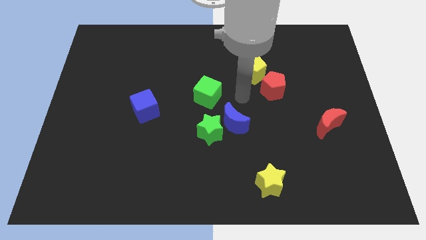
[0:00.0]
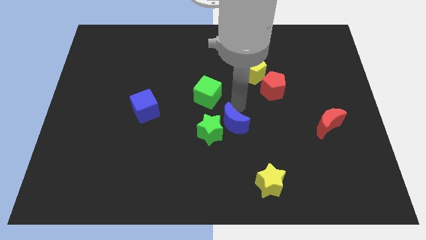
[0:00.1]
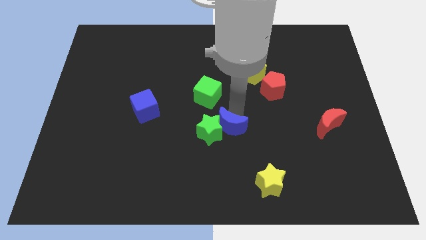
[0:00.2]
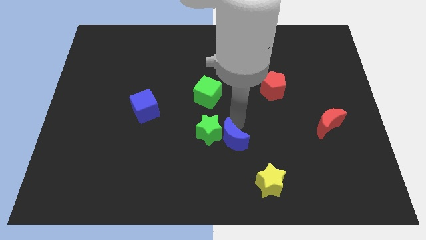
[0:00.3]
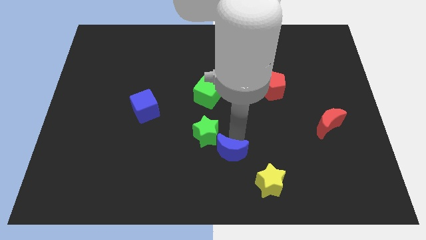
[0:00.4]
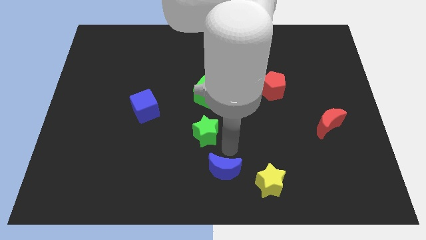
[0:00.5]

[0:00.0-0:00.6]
separate the green star from the blue moon

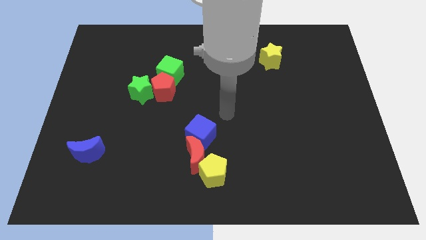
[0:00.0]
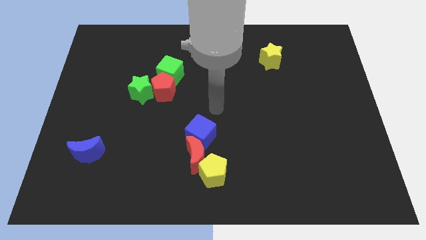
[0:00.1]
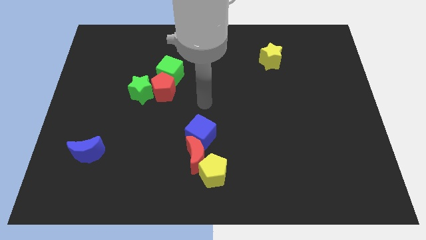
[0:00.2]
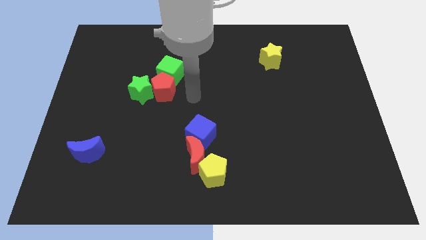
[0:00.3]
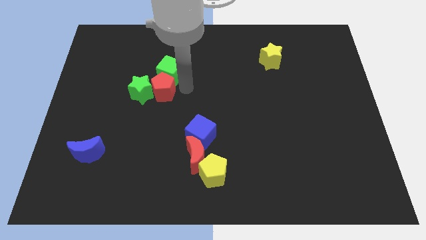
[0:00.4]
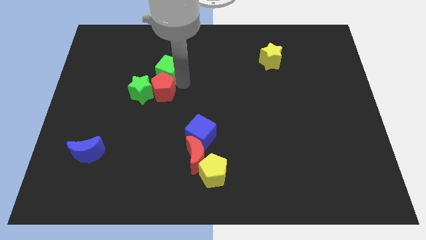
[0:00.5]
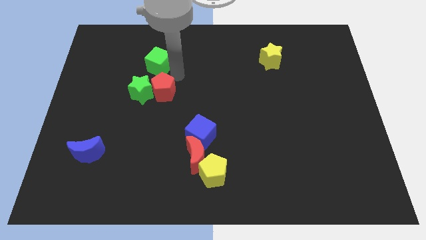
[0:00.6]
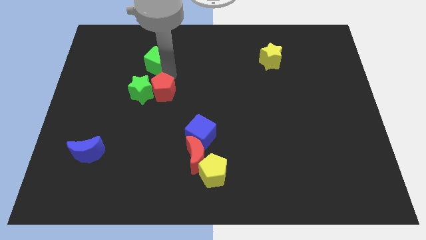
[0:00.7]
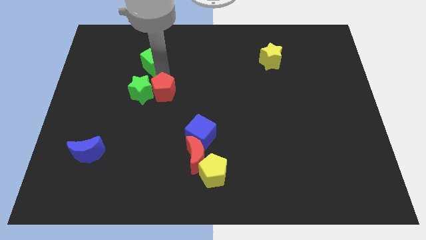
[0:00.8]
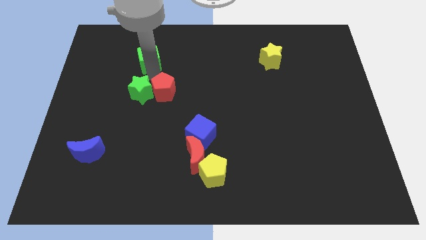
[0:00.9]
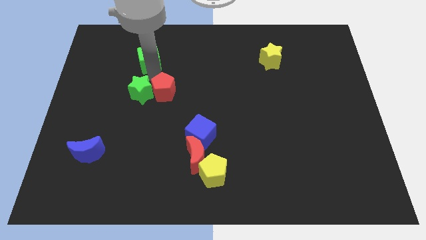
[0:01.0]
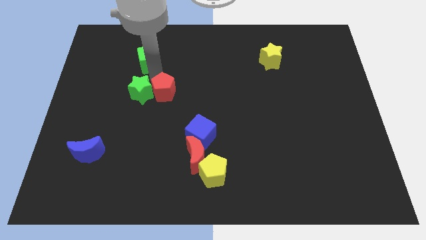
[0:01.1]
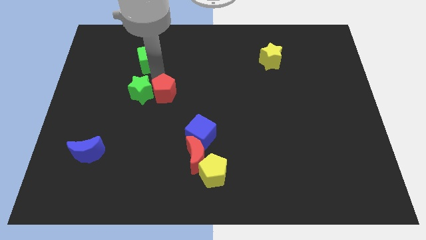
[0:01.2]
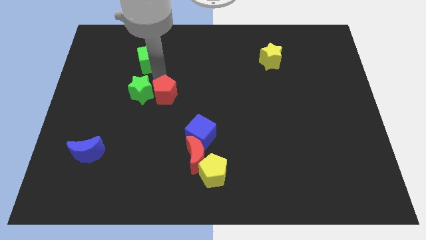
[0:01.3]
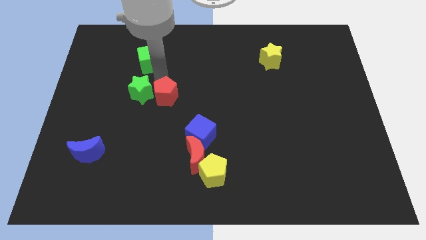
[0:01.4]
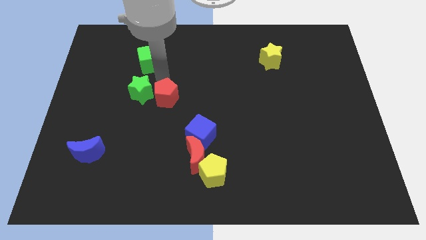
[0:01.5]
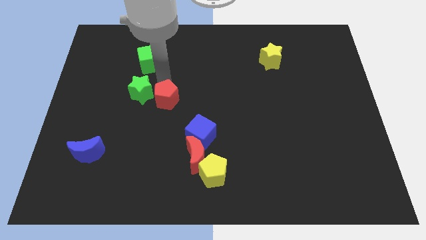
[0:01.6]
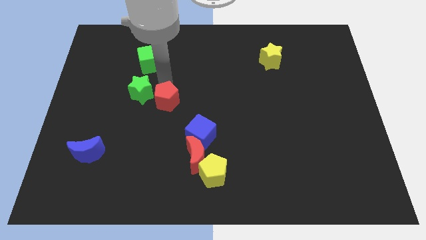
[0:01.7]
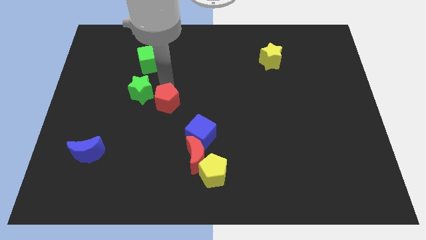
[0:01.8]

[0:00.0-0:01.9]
pull the red pentagon apart from the green star and green cube

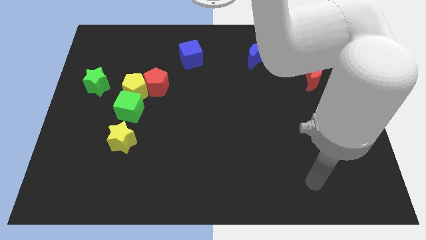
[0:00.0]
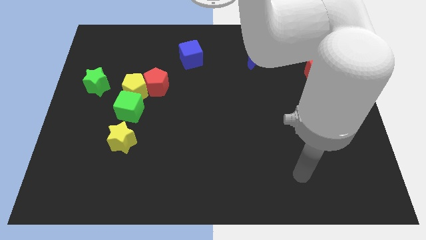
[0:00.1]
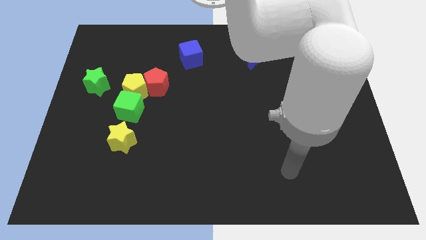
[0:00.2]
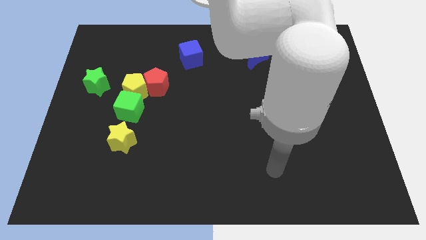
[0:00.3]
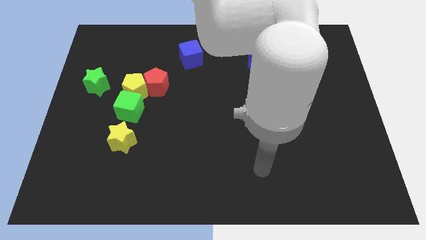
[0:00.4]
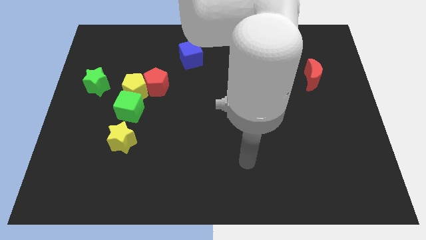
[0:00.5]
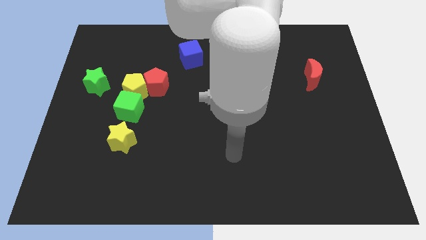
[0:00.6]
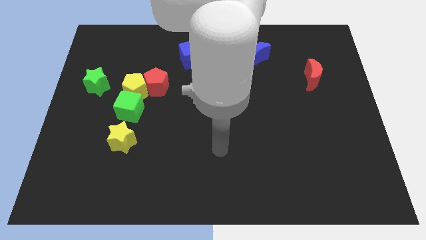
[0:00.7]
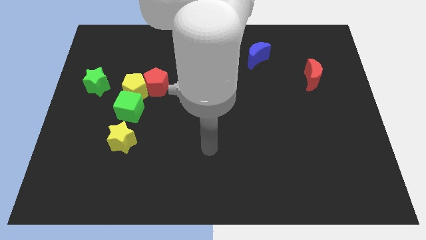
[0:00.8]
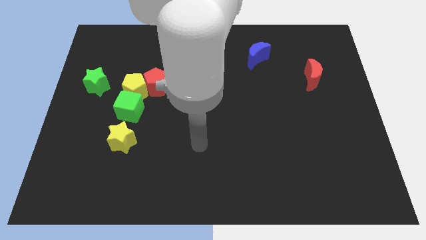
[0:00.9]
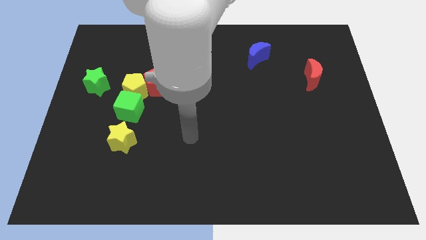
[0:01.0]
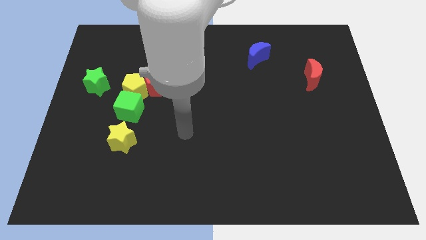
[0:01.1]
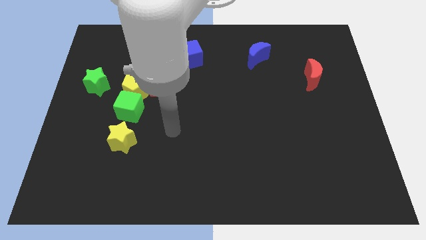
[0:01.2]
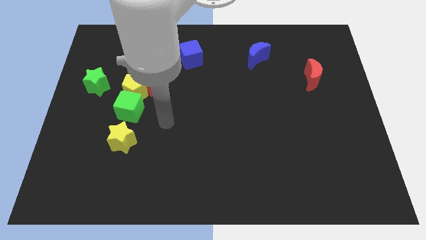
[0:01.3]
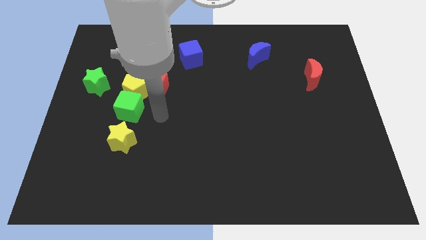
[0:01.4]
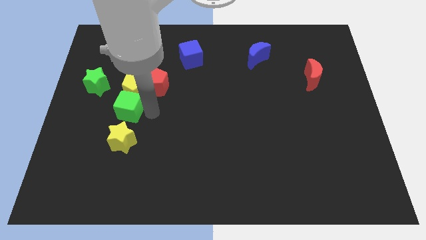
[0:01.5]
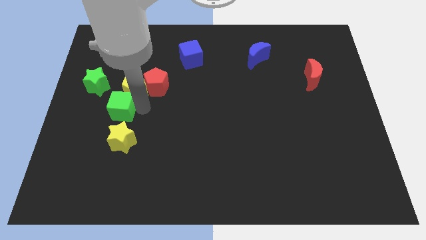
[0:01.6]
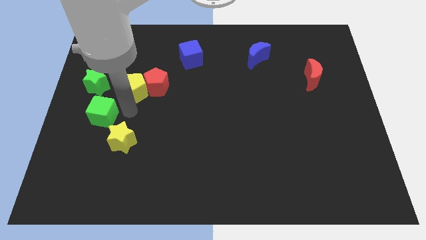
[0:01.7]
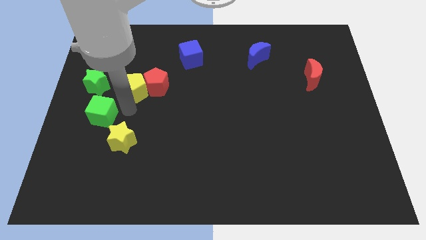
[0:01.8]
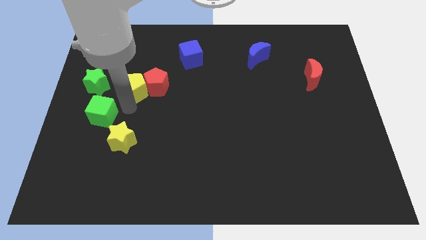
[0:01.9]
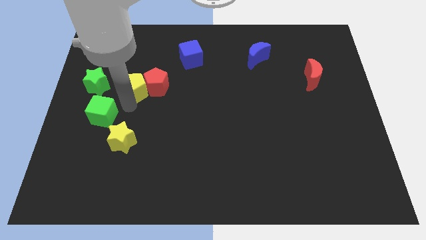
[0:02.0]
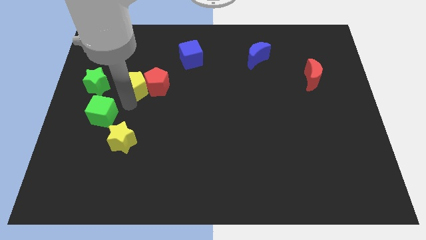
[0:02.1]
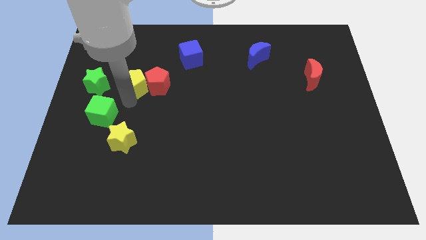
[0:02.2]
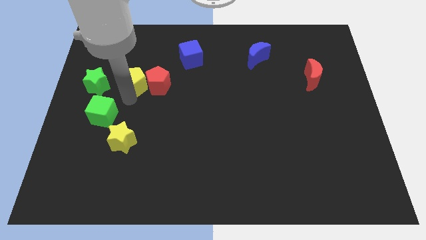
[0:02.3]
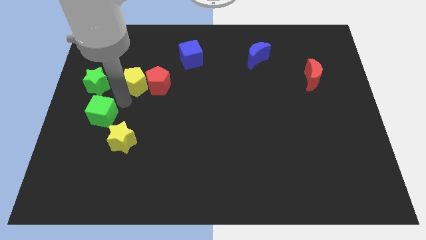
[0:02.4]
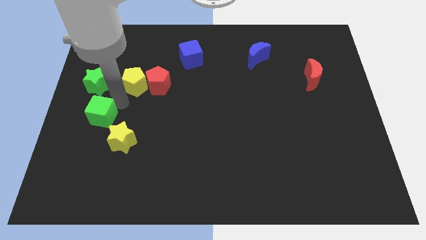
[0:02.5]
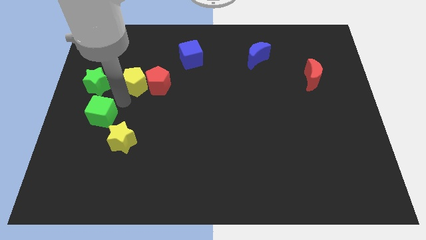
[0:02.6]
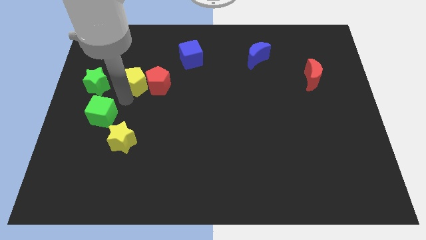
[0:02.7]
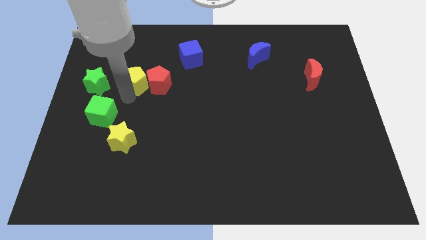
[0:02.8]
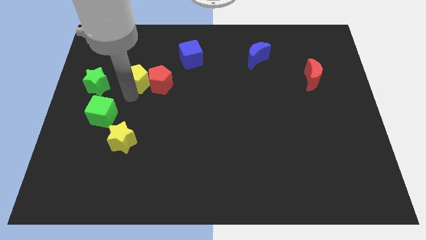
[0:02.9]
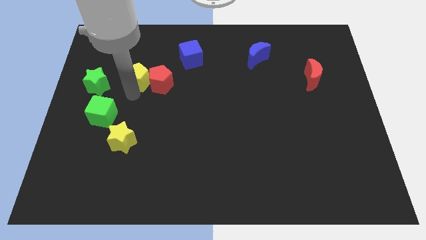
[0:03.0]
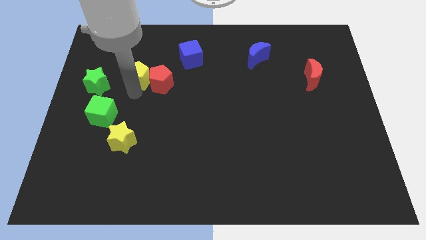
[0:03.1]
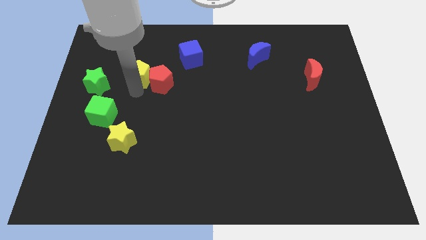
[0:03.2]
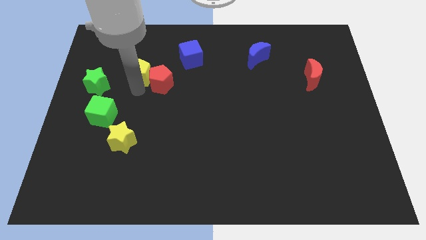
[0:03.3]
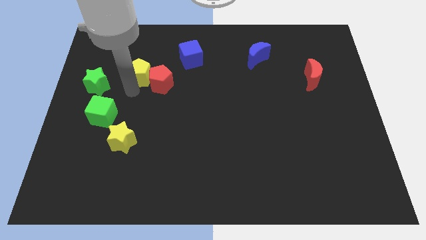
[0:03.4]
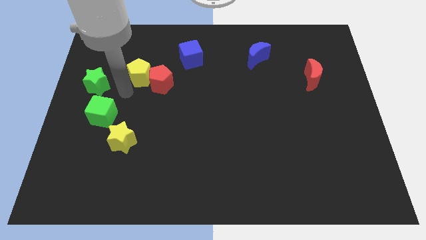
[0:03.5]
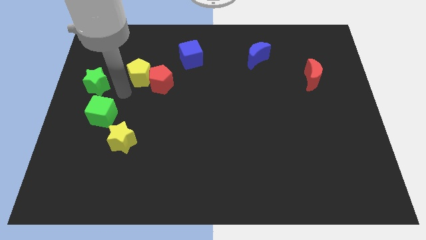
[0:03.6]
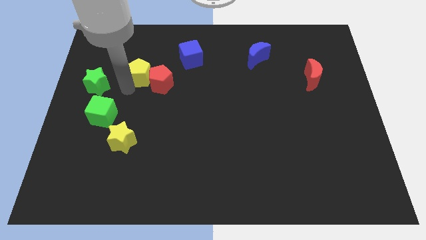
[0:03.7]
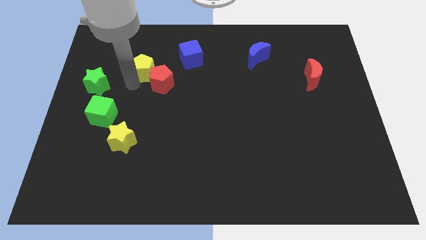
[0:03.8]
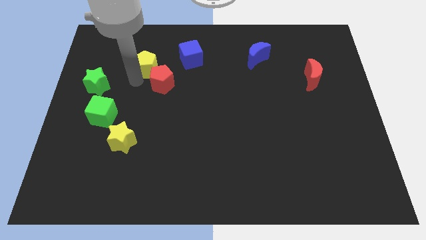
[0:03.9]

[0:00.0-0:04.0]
separate the yellow pentagon from the red pentagon, green cube, and green star

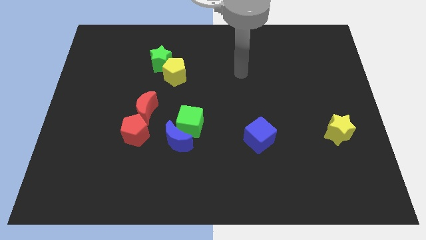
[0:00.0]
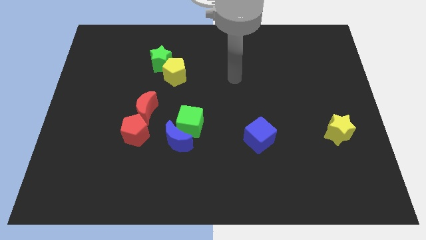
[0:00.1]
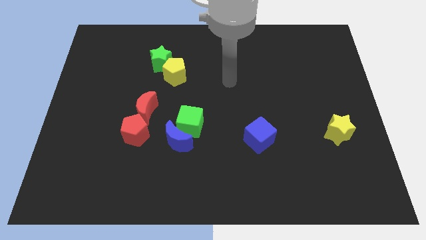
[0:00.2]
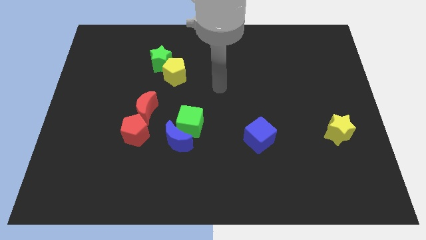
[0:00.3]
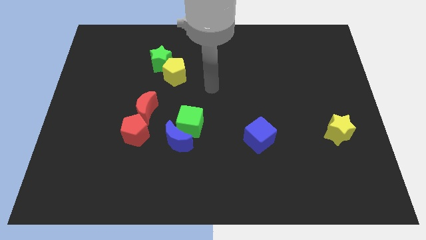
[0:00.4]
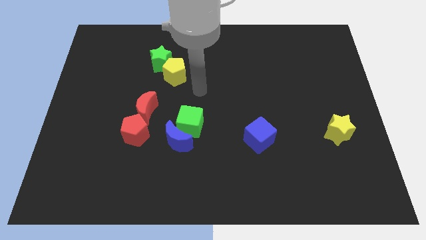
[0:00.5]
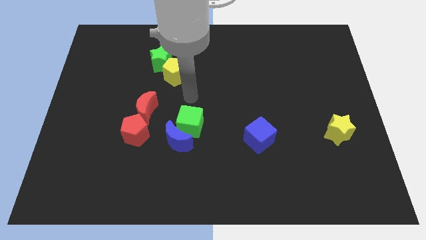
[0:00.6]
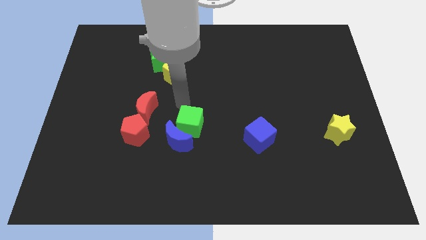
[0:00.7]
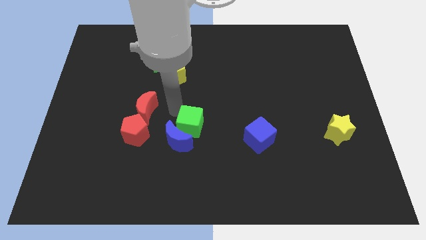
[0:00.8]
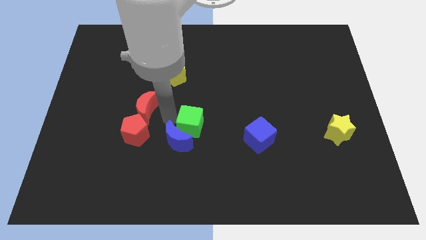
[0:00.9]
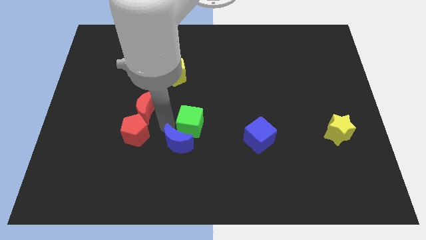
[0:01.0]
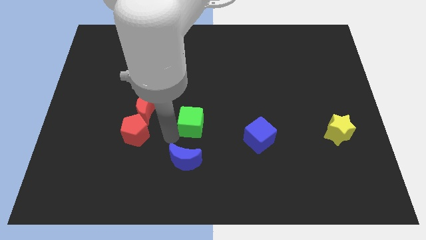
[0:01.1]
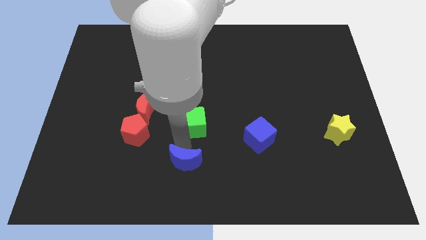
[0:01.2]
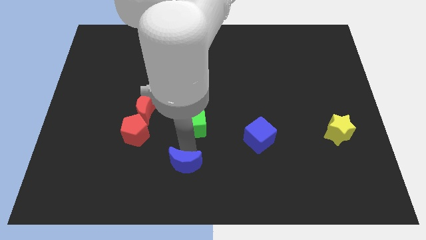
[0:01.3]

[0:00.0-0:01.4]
move the green cube away from the blue moon

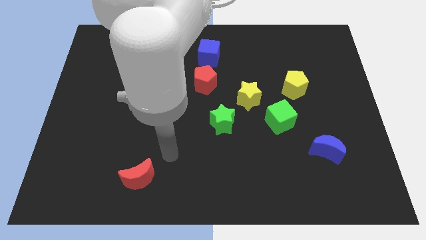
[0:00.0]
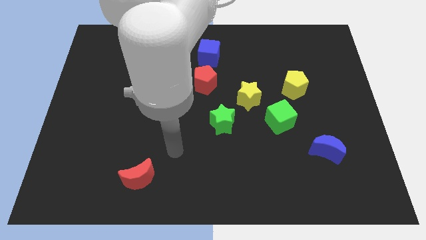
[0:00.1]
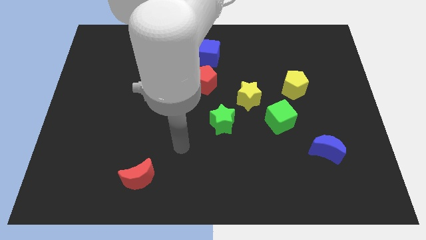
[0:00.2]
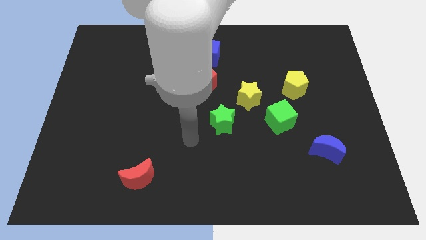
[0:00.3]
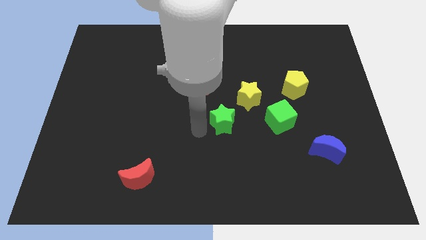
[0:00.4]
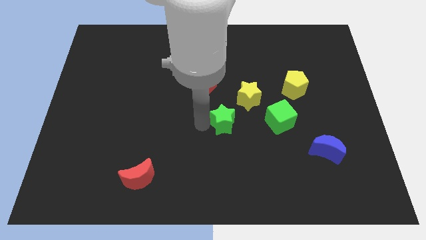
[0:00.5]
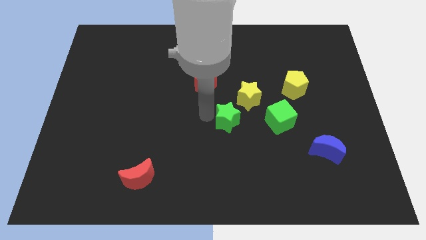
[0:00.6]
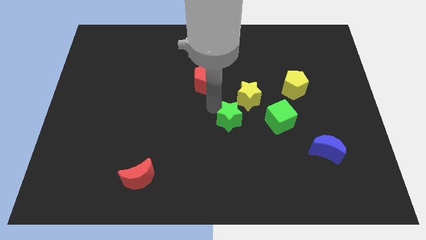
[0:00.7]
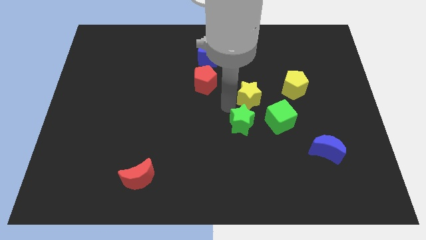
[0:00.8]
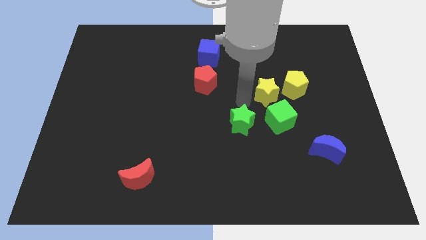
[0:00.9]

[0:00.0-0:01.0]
pull the green star apart from the yellow star

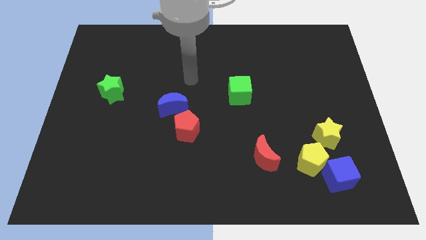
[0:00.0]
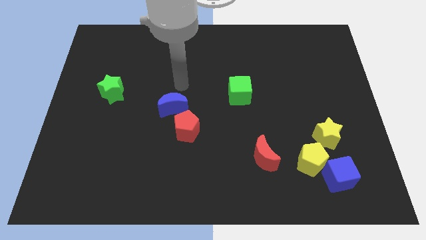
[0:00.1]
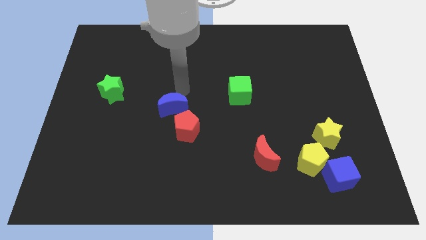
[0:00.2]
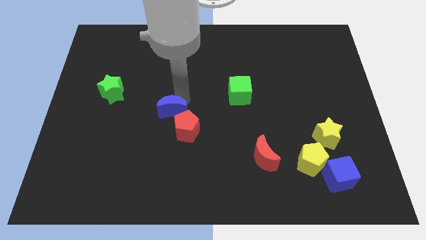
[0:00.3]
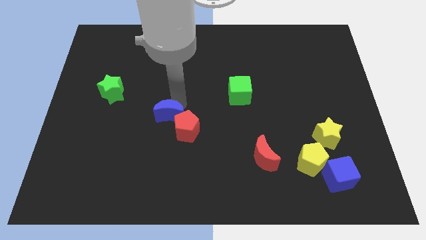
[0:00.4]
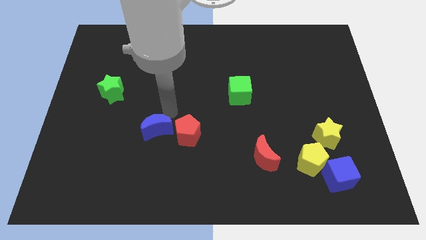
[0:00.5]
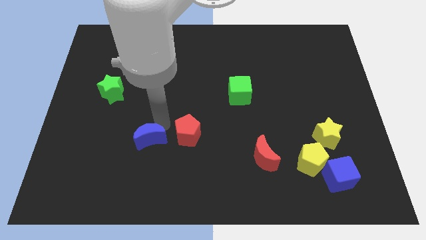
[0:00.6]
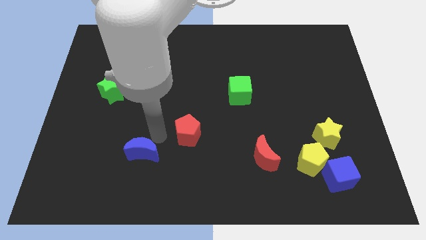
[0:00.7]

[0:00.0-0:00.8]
separate the red pentagon from the blue moon
